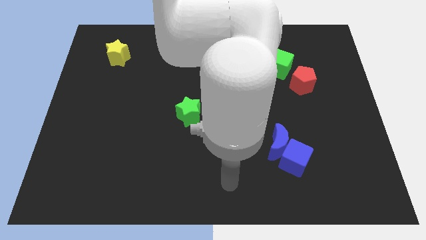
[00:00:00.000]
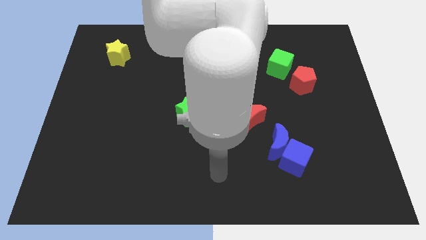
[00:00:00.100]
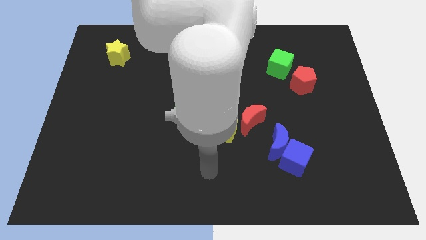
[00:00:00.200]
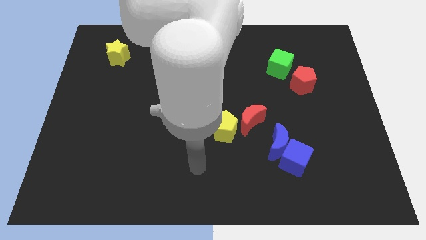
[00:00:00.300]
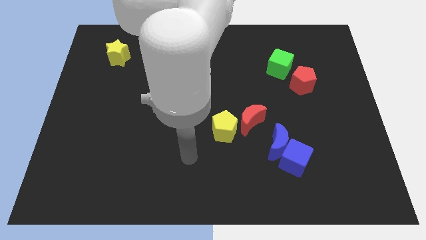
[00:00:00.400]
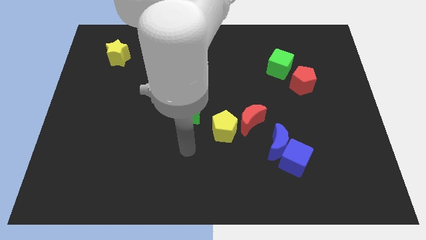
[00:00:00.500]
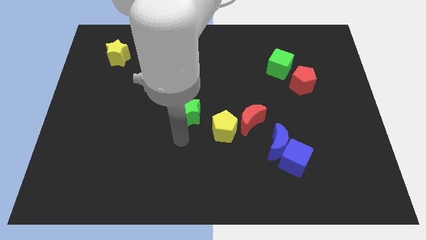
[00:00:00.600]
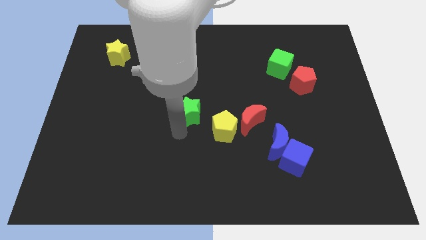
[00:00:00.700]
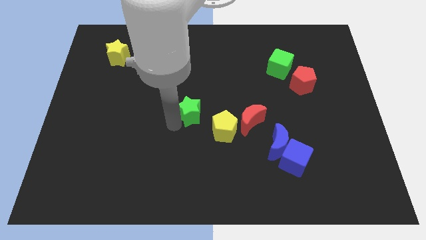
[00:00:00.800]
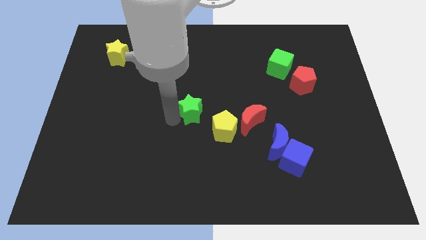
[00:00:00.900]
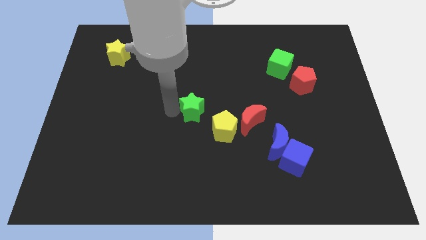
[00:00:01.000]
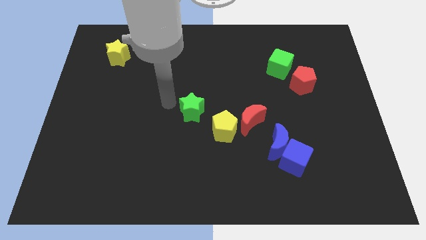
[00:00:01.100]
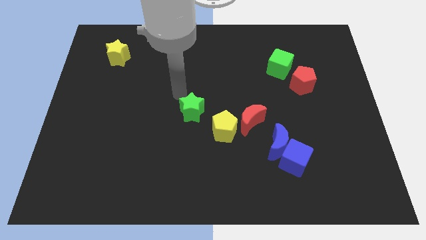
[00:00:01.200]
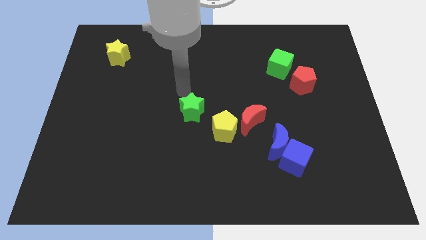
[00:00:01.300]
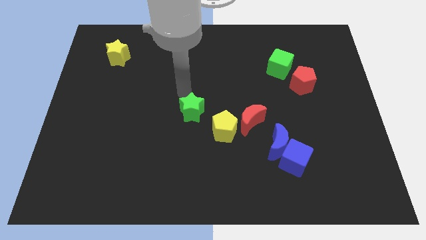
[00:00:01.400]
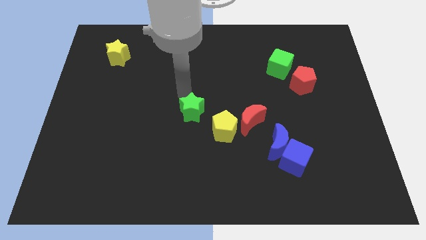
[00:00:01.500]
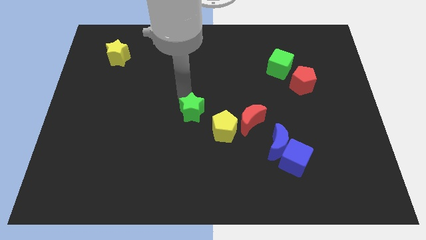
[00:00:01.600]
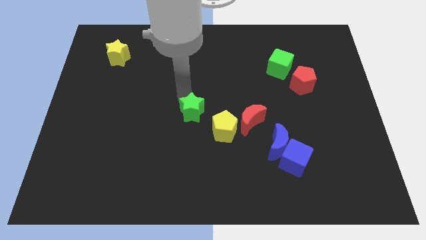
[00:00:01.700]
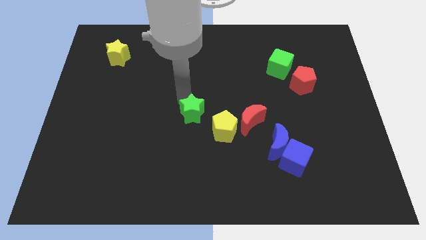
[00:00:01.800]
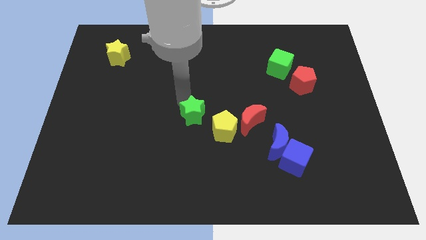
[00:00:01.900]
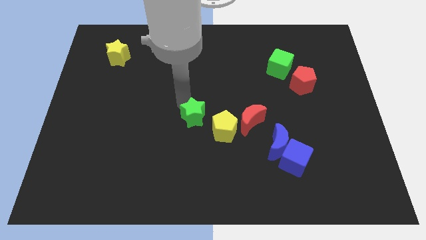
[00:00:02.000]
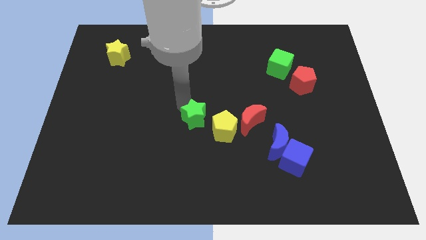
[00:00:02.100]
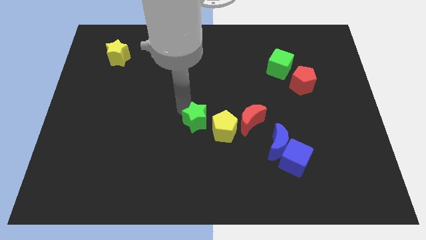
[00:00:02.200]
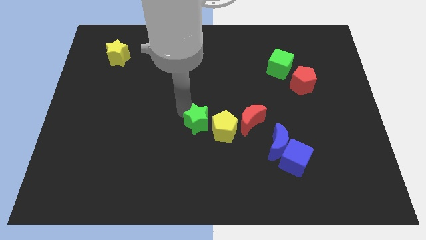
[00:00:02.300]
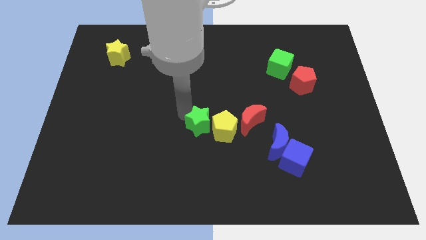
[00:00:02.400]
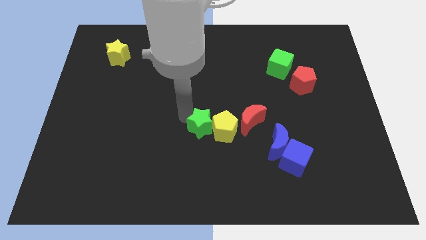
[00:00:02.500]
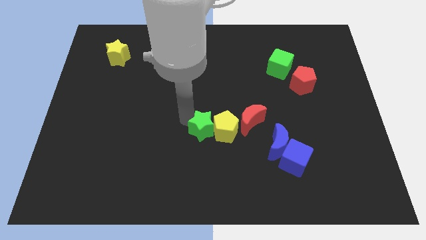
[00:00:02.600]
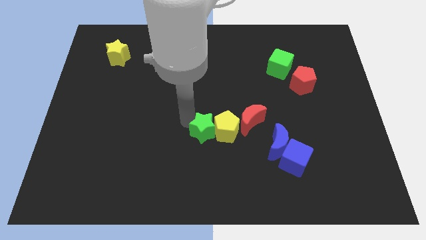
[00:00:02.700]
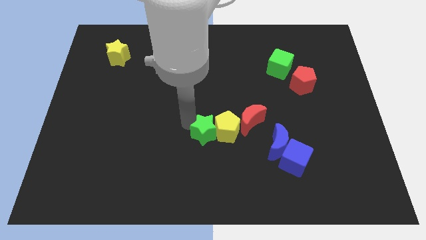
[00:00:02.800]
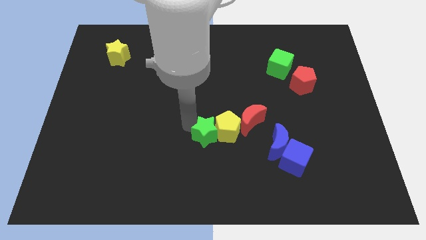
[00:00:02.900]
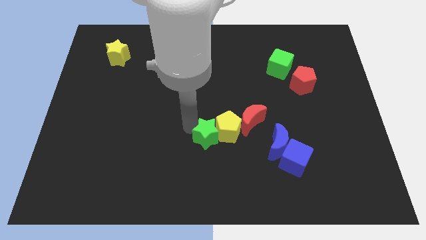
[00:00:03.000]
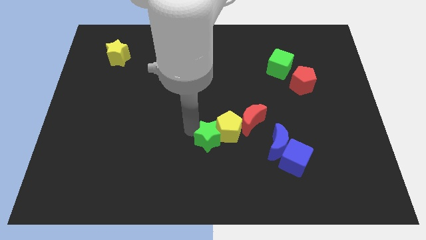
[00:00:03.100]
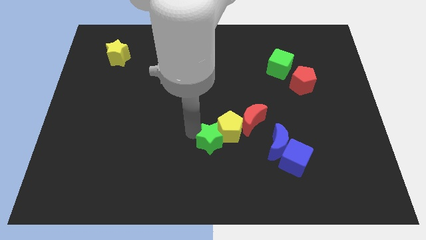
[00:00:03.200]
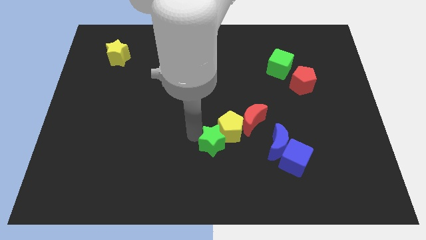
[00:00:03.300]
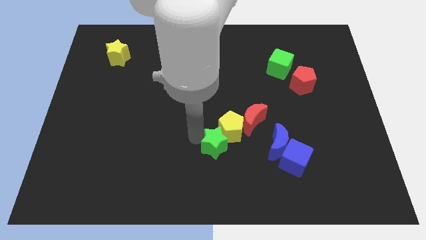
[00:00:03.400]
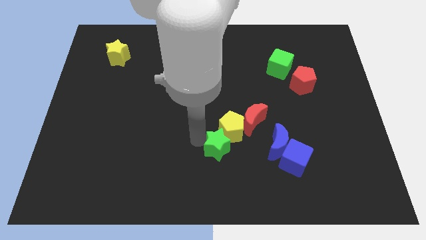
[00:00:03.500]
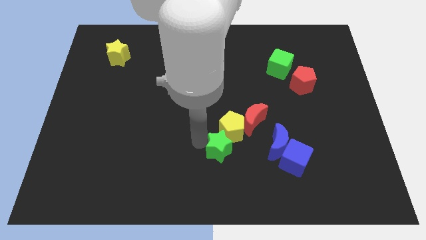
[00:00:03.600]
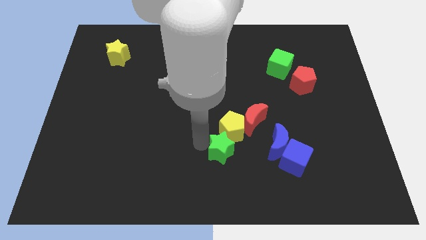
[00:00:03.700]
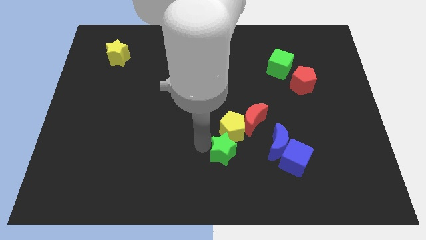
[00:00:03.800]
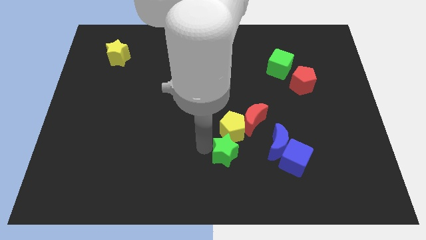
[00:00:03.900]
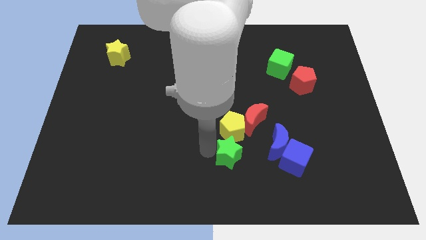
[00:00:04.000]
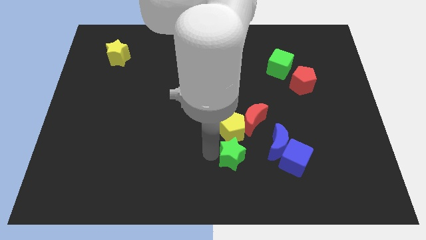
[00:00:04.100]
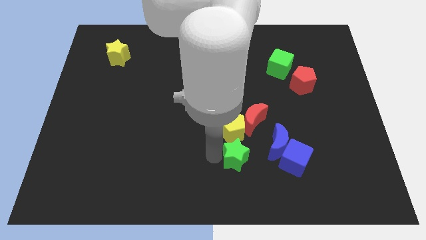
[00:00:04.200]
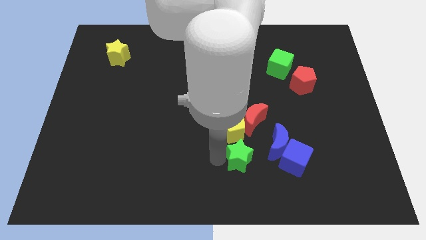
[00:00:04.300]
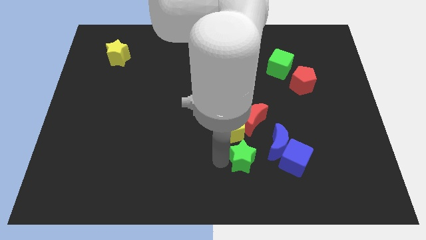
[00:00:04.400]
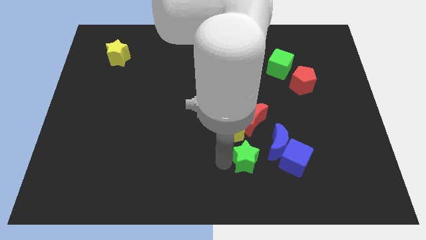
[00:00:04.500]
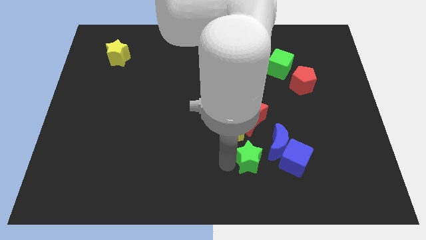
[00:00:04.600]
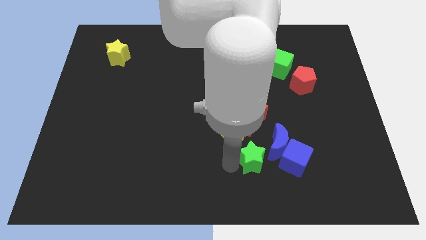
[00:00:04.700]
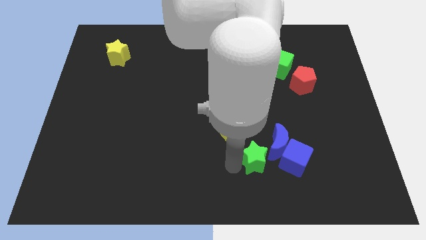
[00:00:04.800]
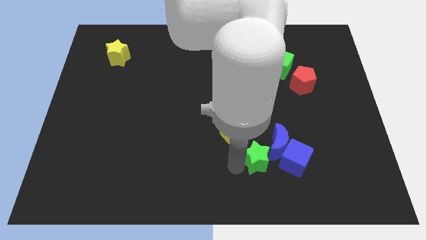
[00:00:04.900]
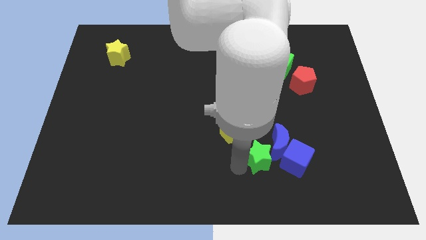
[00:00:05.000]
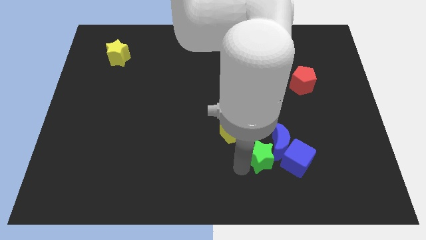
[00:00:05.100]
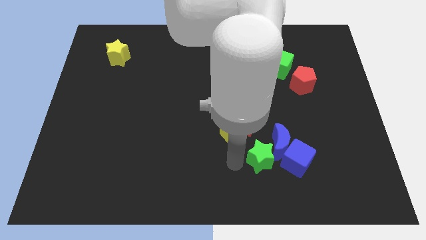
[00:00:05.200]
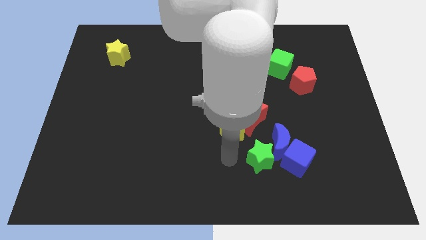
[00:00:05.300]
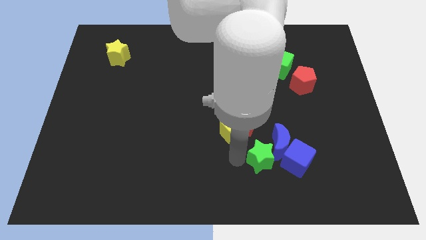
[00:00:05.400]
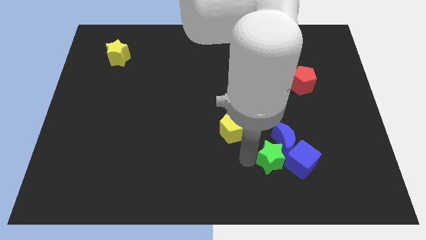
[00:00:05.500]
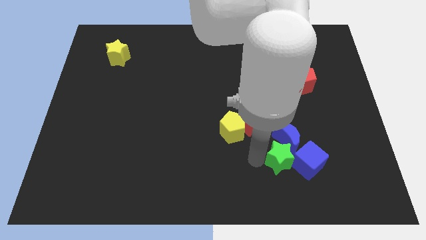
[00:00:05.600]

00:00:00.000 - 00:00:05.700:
push the green star close to the blue cube

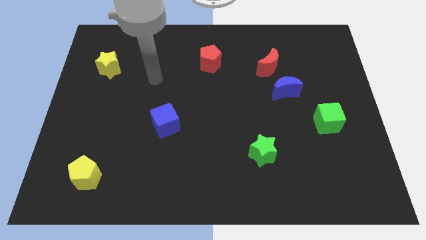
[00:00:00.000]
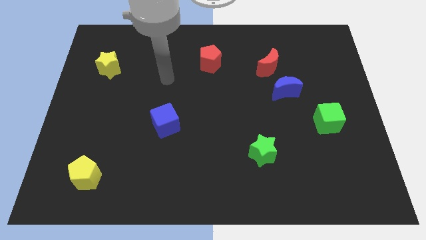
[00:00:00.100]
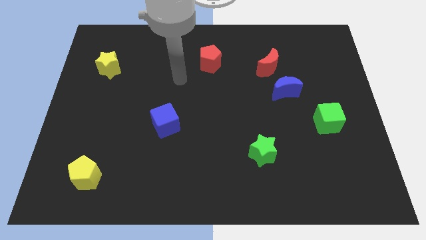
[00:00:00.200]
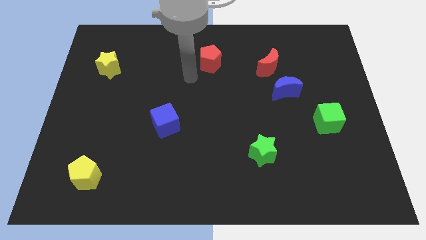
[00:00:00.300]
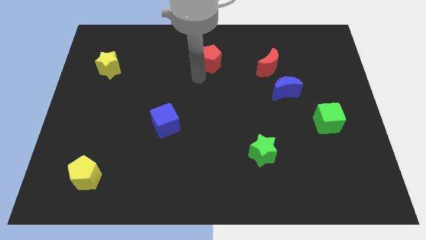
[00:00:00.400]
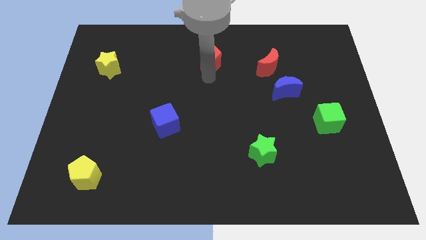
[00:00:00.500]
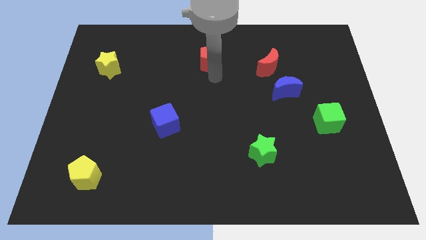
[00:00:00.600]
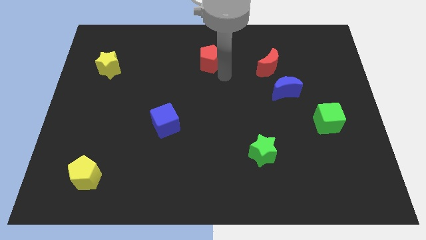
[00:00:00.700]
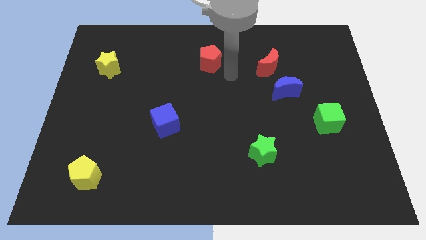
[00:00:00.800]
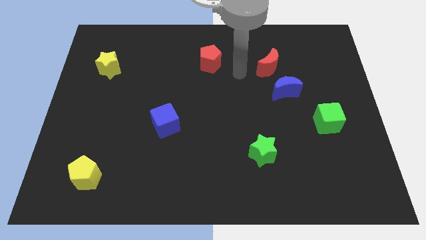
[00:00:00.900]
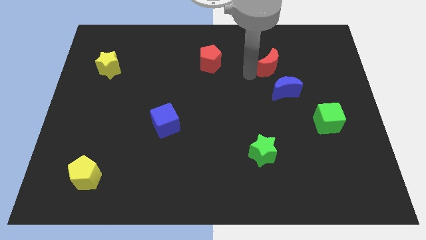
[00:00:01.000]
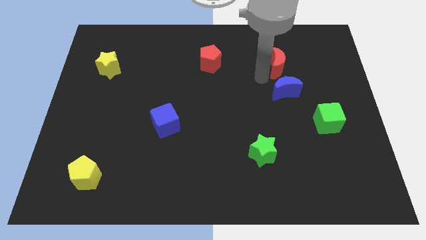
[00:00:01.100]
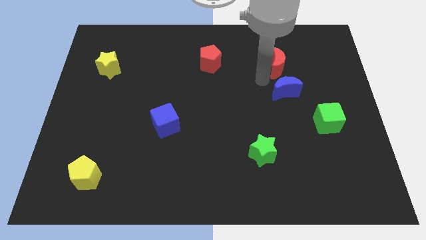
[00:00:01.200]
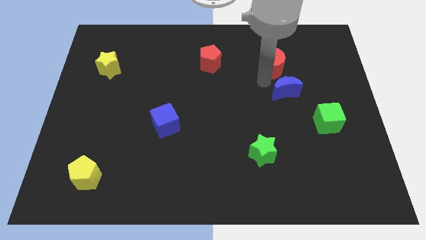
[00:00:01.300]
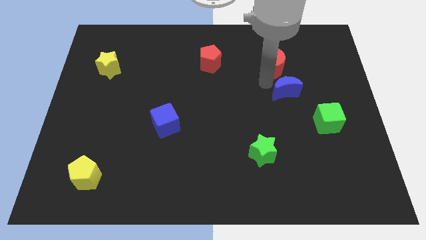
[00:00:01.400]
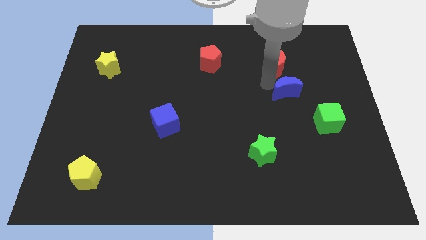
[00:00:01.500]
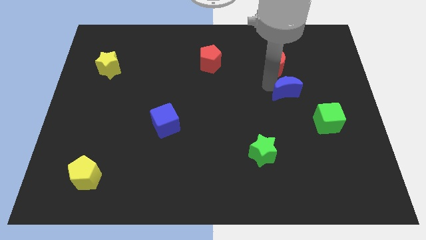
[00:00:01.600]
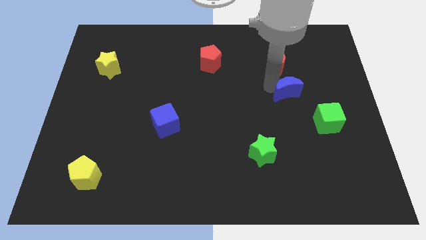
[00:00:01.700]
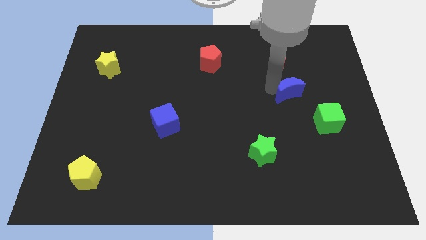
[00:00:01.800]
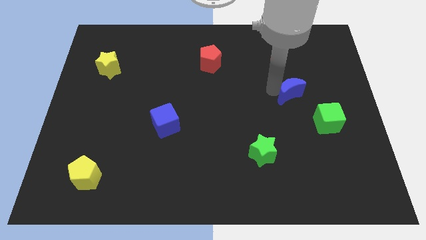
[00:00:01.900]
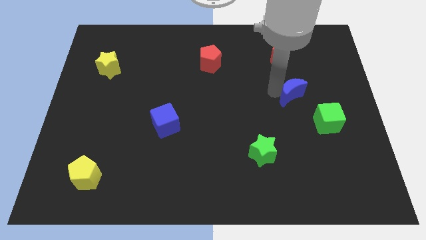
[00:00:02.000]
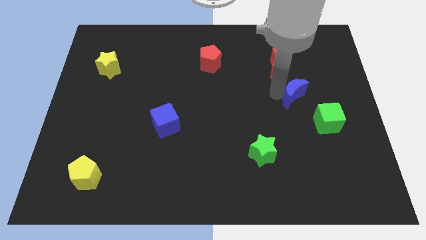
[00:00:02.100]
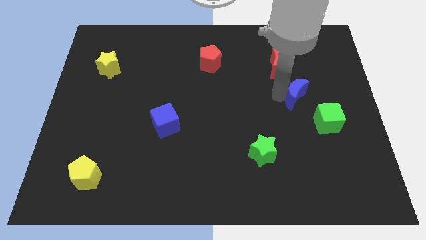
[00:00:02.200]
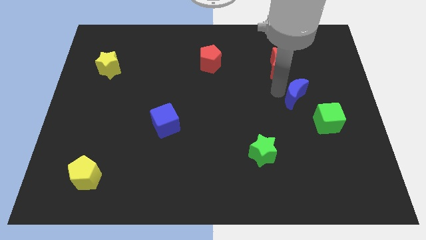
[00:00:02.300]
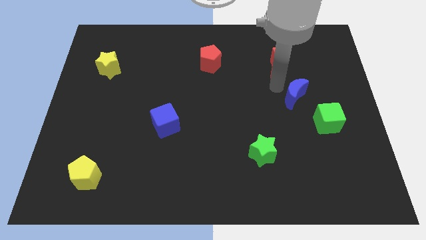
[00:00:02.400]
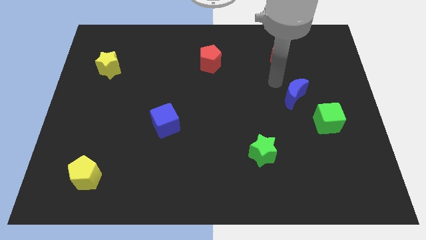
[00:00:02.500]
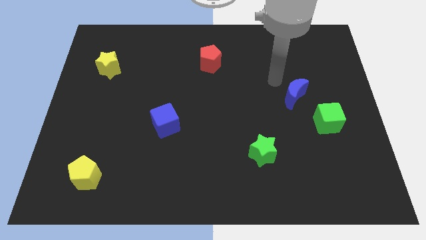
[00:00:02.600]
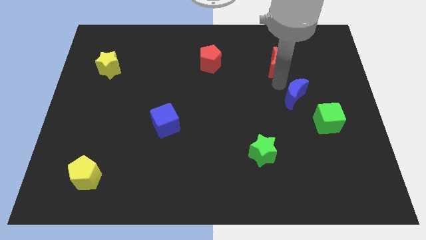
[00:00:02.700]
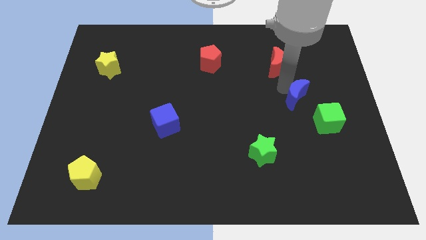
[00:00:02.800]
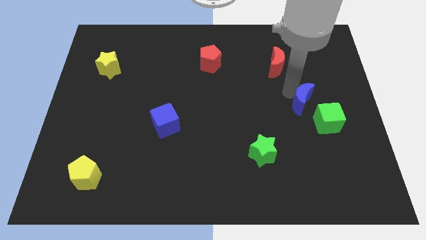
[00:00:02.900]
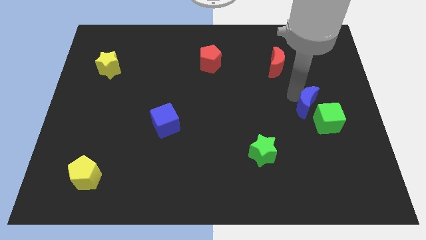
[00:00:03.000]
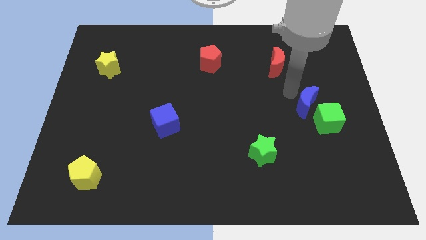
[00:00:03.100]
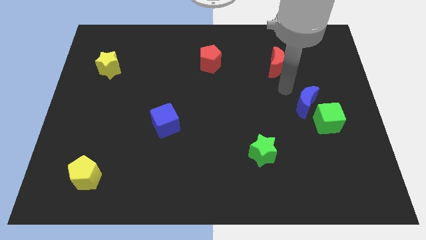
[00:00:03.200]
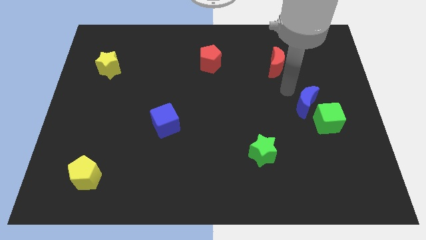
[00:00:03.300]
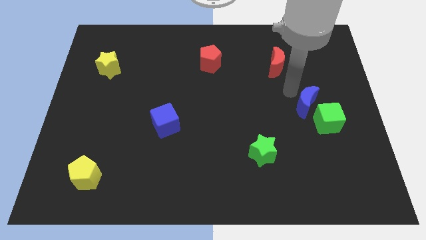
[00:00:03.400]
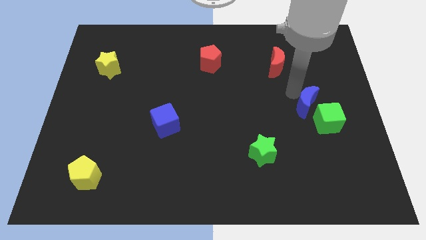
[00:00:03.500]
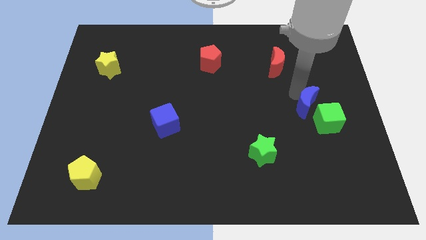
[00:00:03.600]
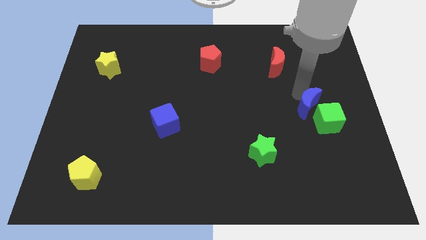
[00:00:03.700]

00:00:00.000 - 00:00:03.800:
move the blue moon to the green cube
